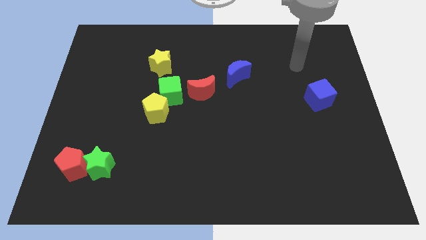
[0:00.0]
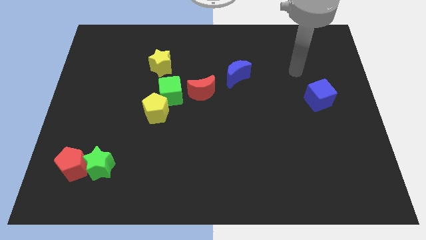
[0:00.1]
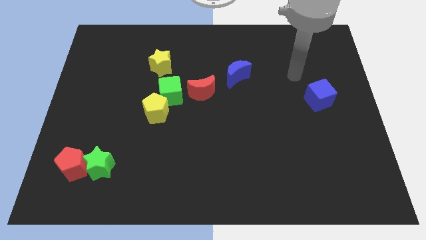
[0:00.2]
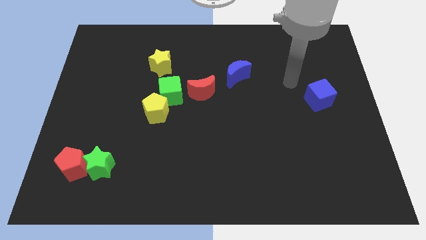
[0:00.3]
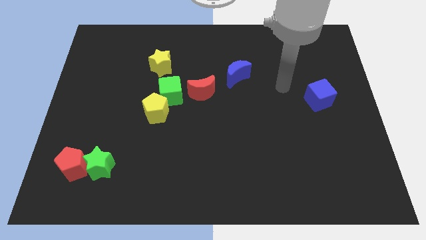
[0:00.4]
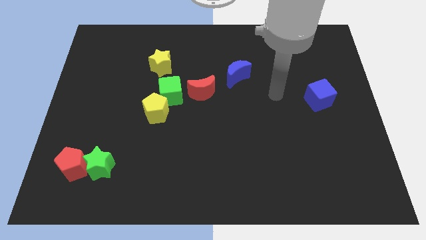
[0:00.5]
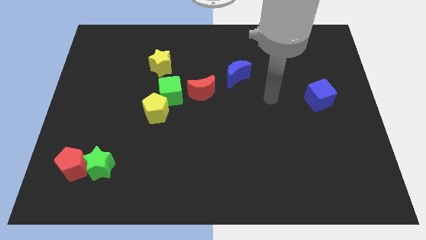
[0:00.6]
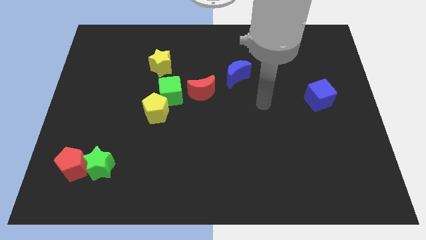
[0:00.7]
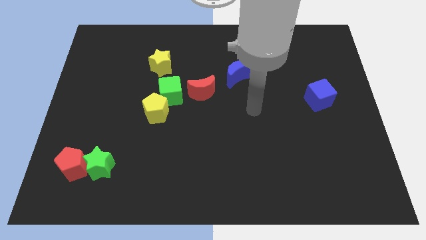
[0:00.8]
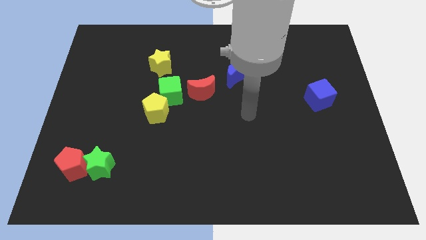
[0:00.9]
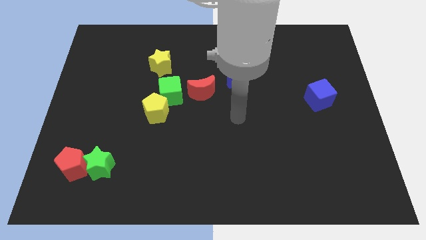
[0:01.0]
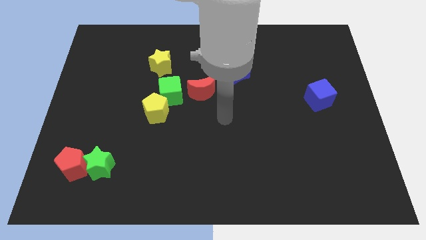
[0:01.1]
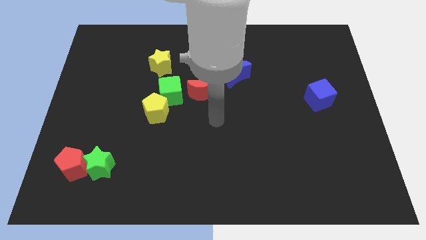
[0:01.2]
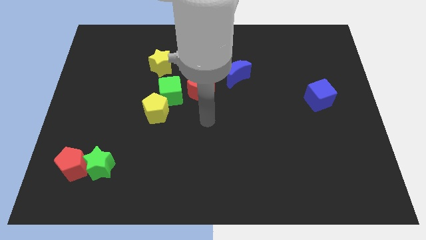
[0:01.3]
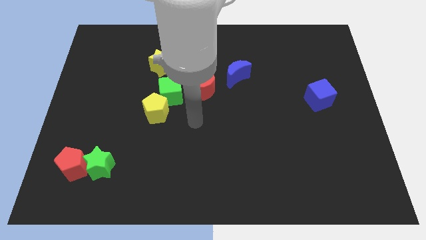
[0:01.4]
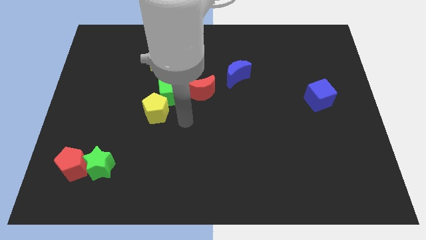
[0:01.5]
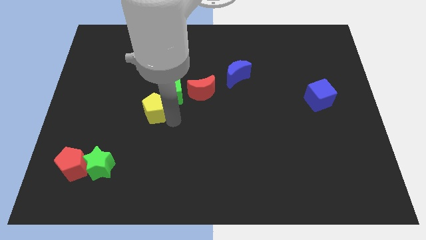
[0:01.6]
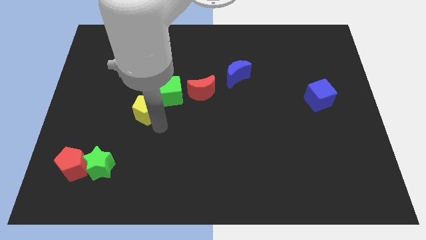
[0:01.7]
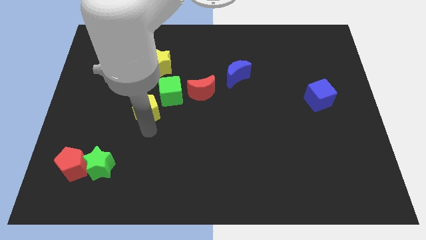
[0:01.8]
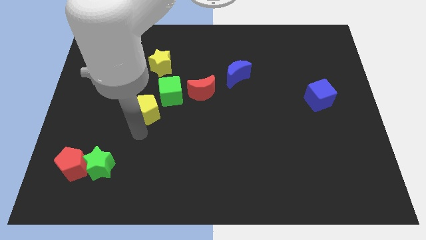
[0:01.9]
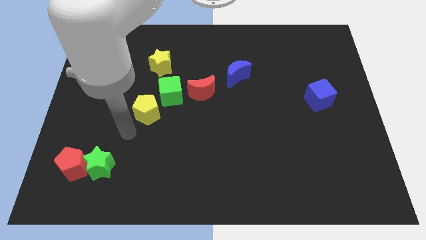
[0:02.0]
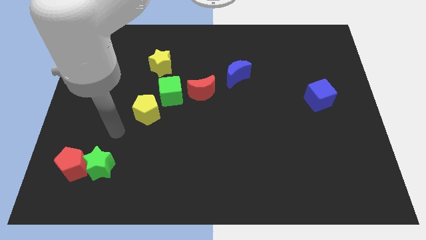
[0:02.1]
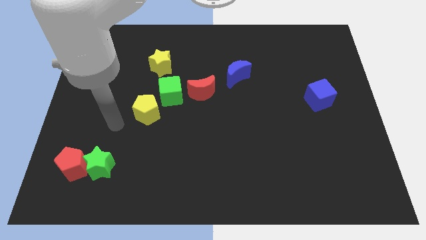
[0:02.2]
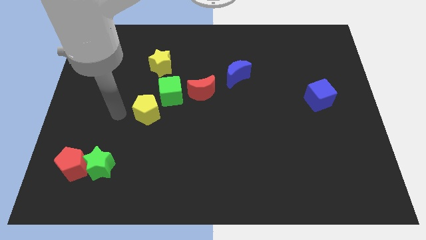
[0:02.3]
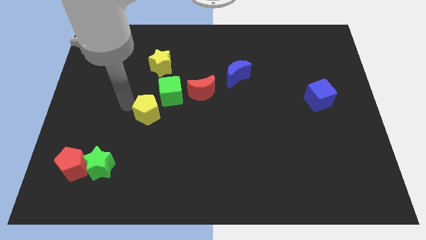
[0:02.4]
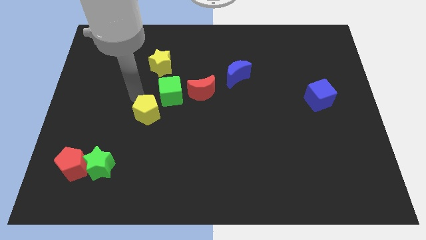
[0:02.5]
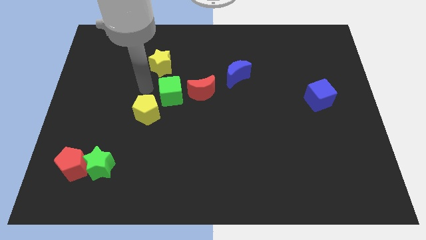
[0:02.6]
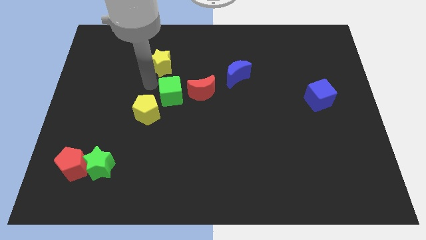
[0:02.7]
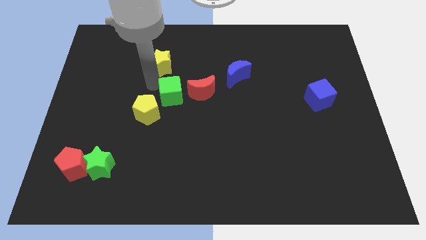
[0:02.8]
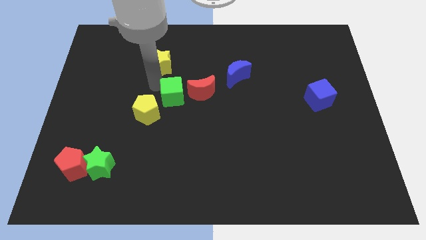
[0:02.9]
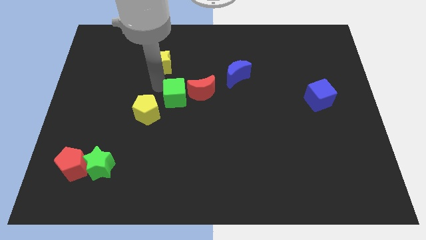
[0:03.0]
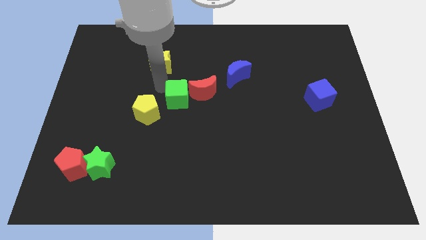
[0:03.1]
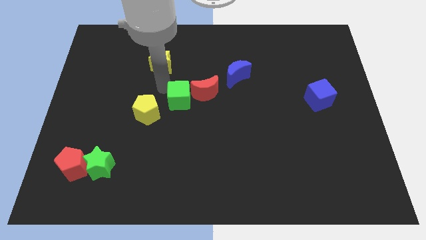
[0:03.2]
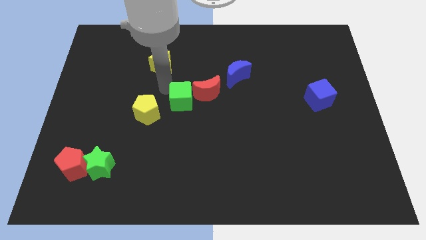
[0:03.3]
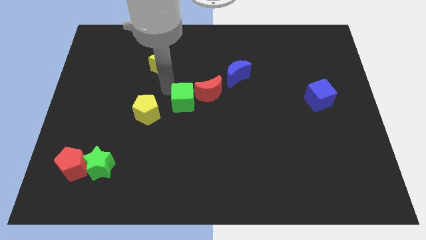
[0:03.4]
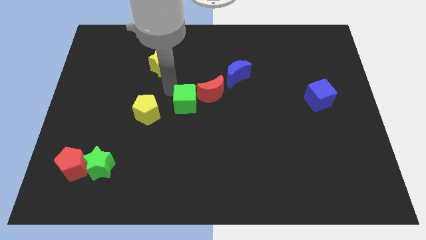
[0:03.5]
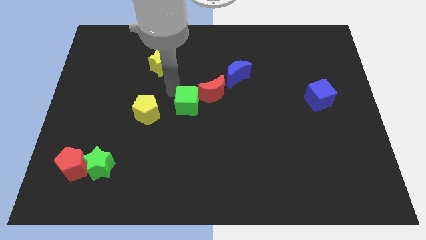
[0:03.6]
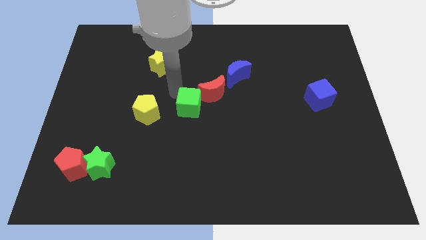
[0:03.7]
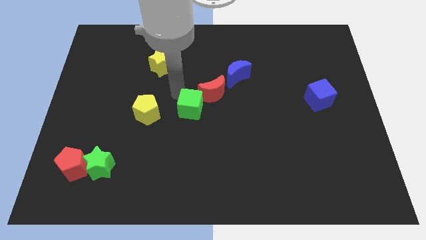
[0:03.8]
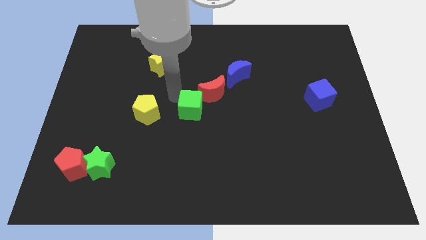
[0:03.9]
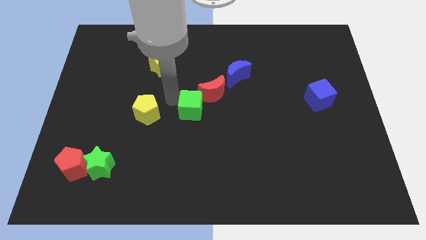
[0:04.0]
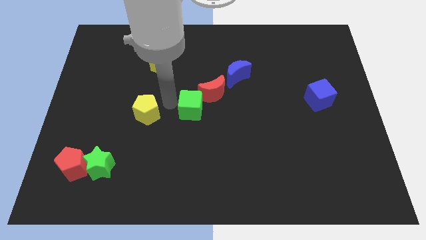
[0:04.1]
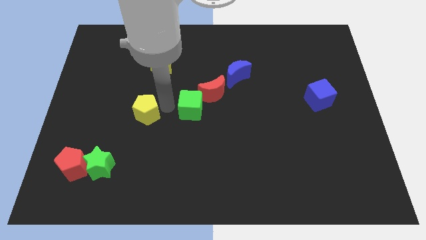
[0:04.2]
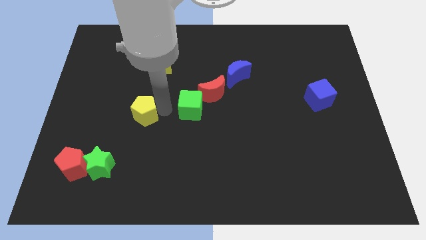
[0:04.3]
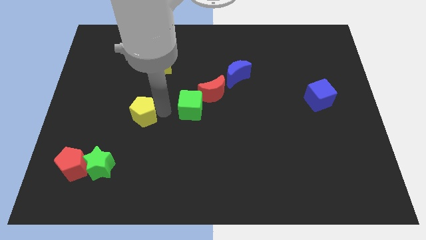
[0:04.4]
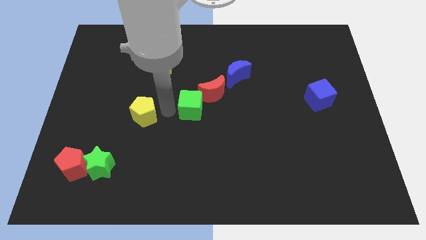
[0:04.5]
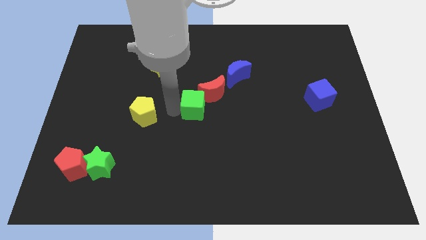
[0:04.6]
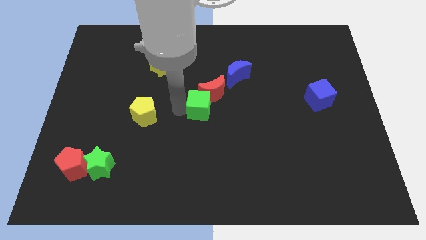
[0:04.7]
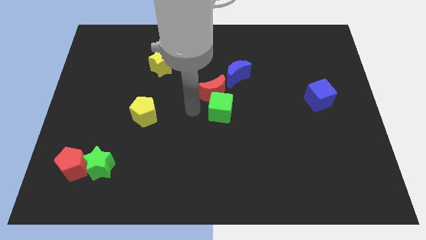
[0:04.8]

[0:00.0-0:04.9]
slightly slide the green cube to the right

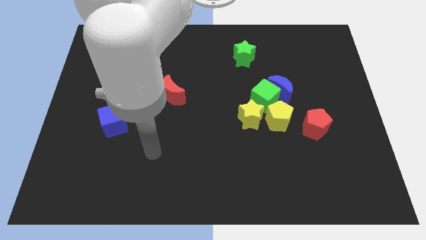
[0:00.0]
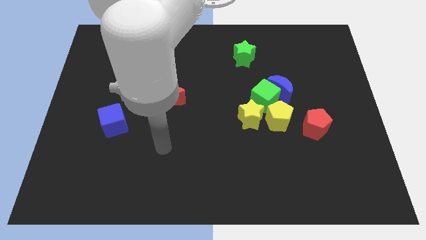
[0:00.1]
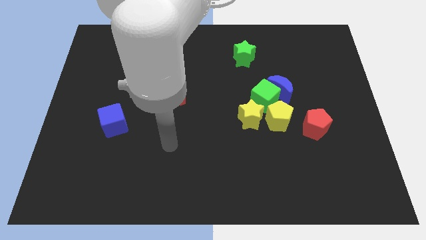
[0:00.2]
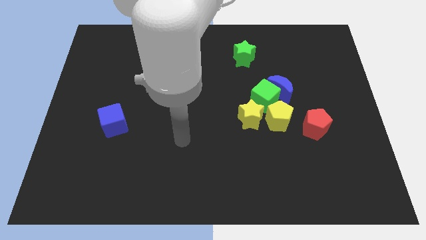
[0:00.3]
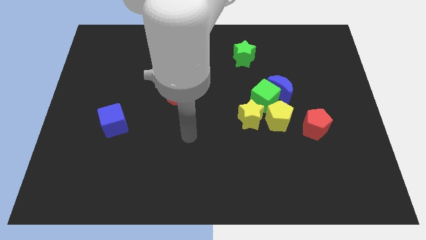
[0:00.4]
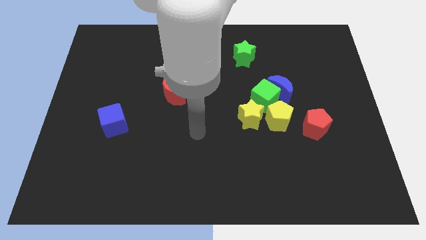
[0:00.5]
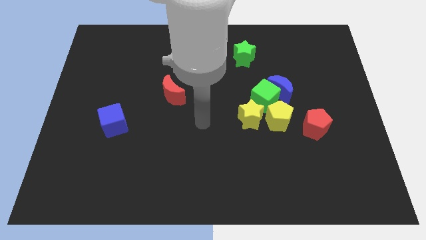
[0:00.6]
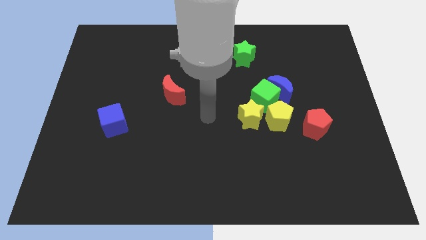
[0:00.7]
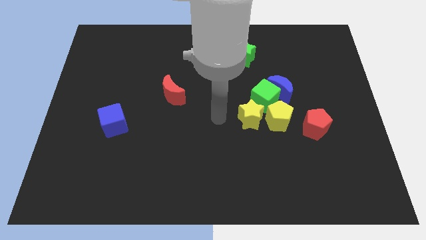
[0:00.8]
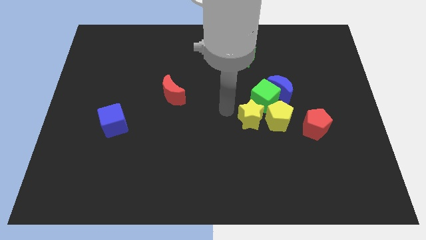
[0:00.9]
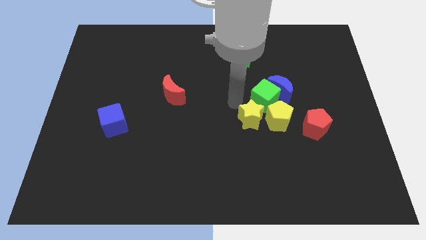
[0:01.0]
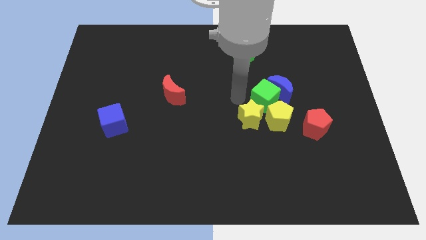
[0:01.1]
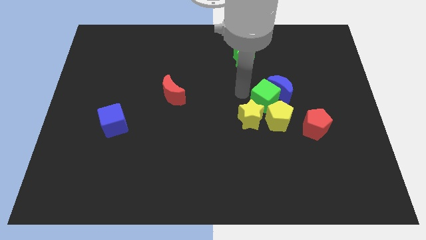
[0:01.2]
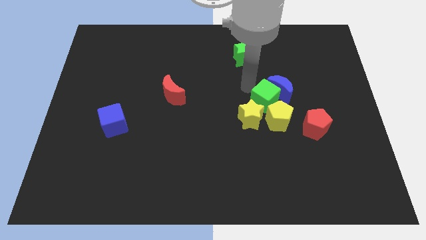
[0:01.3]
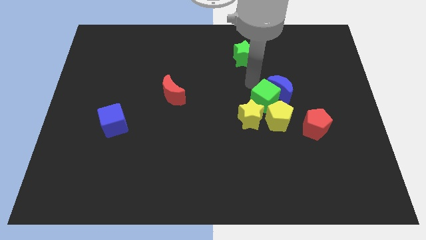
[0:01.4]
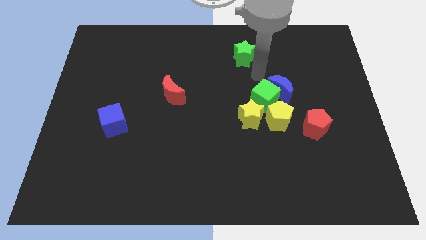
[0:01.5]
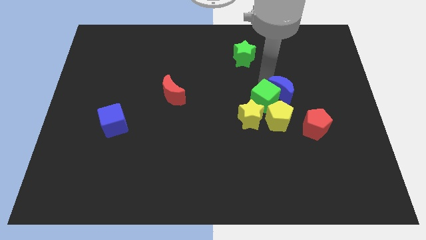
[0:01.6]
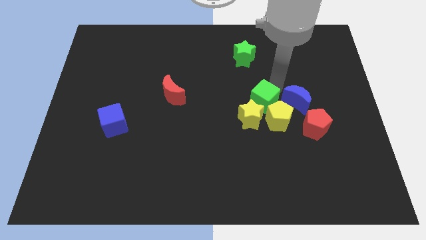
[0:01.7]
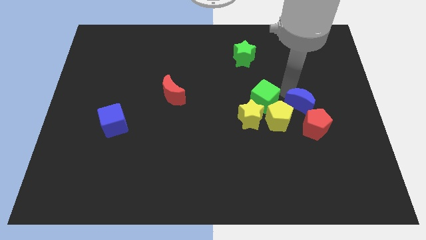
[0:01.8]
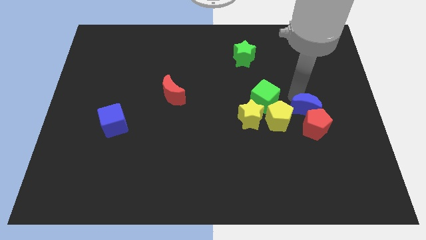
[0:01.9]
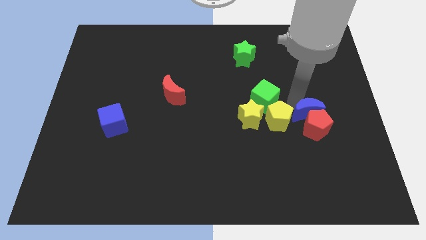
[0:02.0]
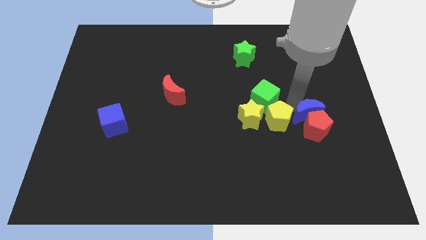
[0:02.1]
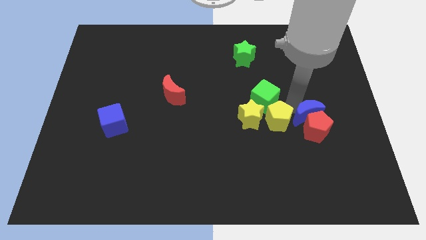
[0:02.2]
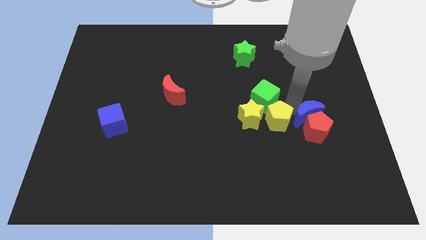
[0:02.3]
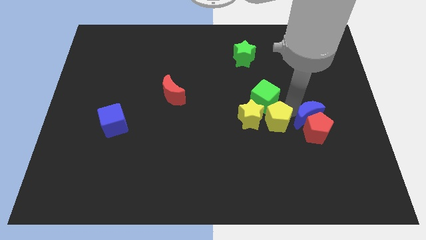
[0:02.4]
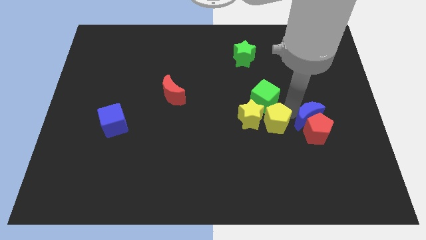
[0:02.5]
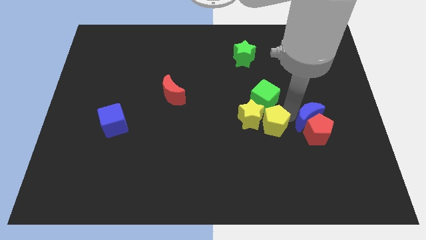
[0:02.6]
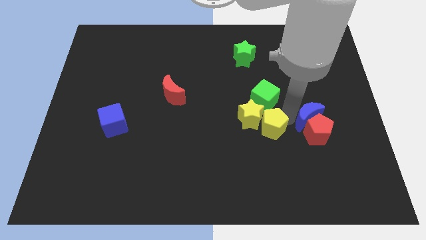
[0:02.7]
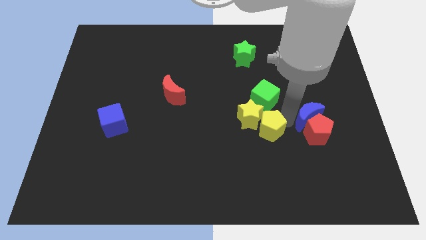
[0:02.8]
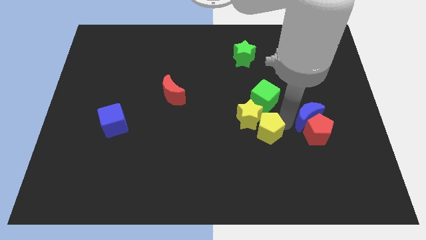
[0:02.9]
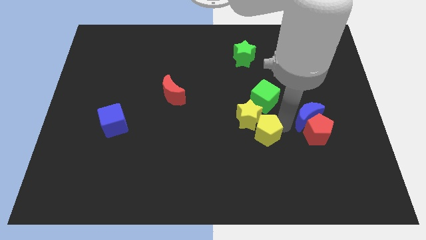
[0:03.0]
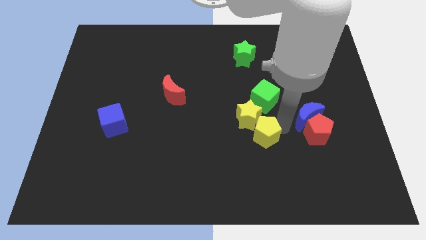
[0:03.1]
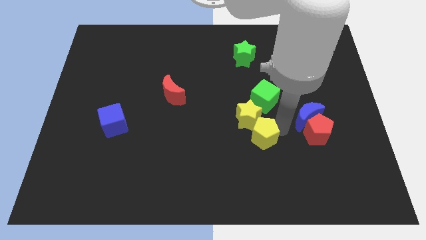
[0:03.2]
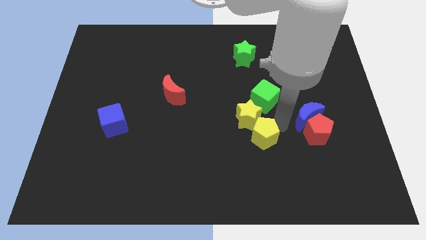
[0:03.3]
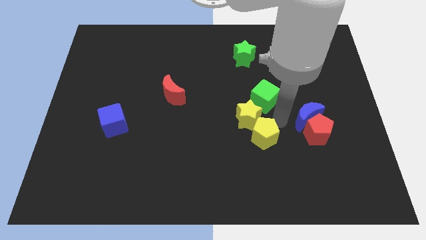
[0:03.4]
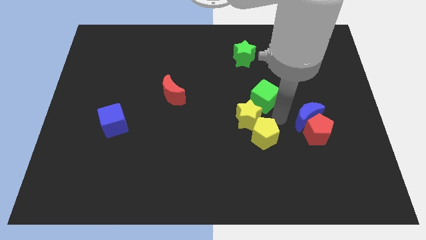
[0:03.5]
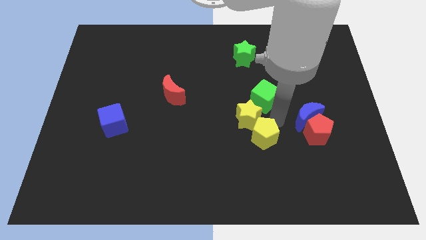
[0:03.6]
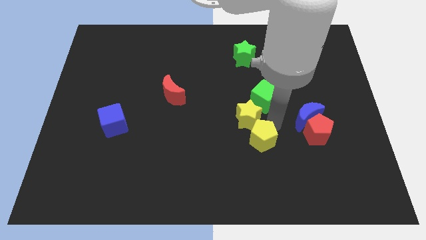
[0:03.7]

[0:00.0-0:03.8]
push the yellow pentagon a bit downwards and left diagonally
